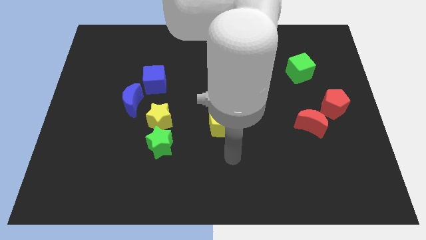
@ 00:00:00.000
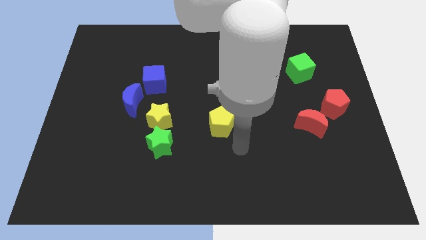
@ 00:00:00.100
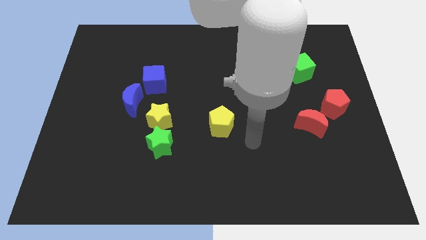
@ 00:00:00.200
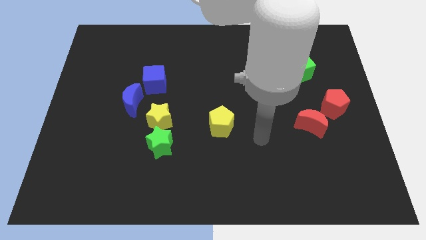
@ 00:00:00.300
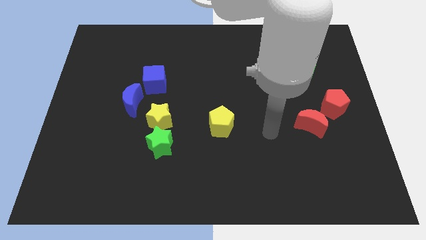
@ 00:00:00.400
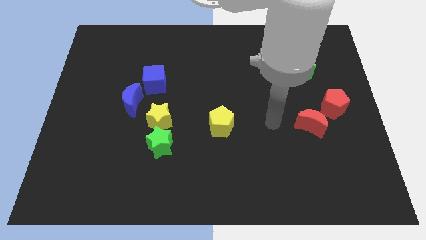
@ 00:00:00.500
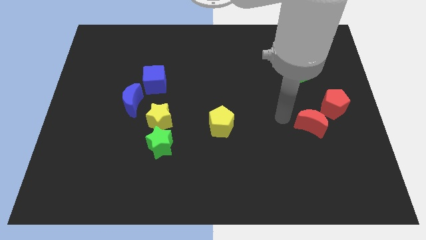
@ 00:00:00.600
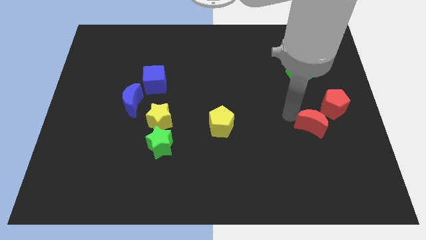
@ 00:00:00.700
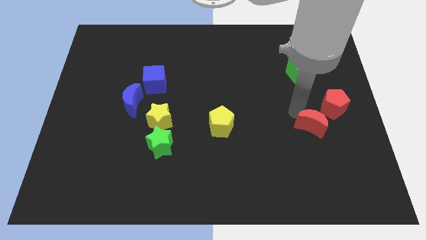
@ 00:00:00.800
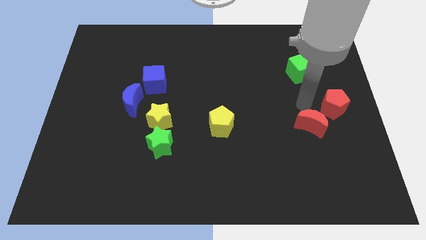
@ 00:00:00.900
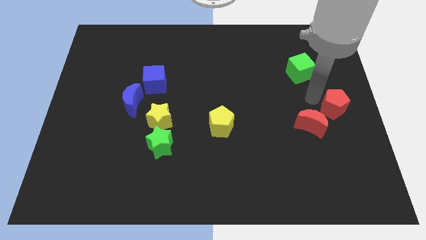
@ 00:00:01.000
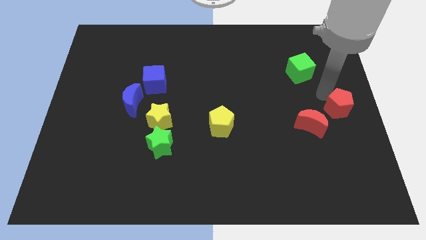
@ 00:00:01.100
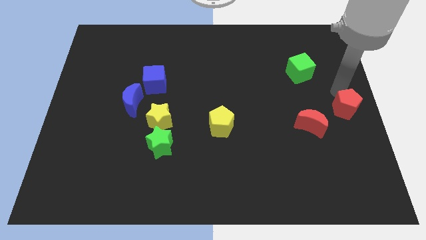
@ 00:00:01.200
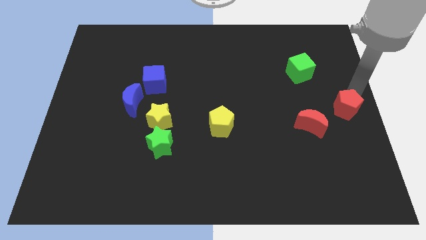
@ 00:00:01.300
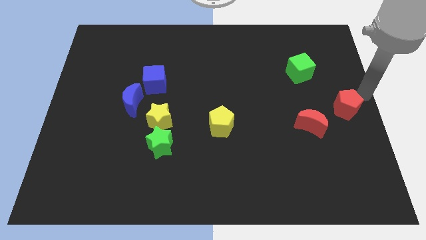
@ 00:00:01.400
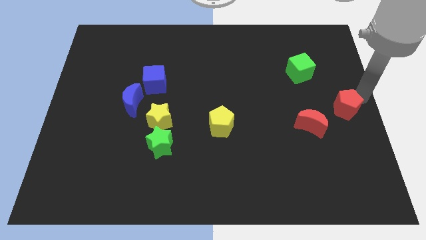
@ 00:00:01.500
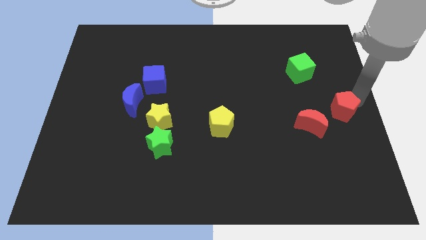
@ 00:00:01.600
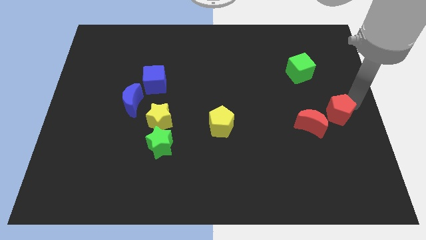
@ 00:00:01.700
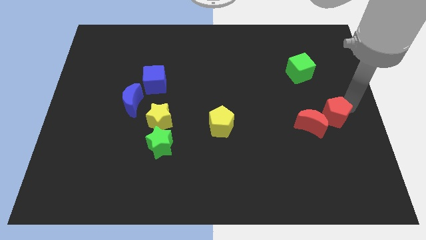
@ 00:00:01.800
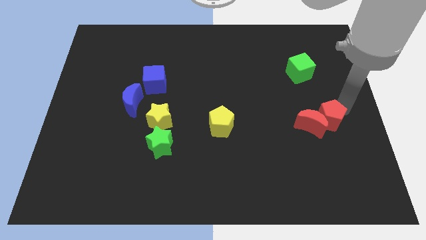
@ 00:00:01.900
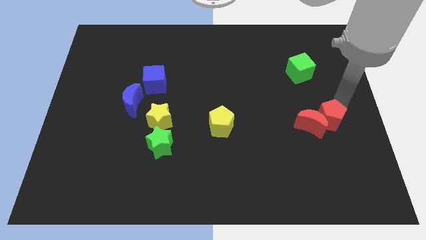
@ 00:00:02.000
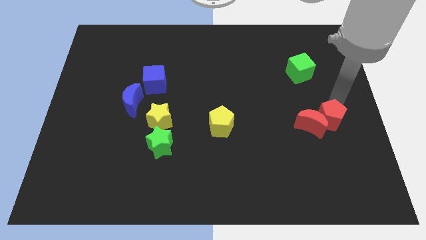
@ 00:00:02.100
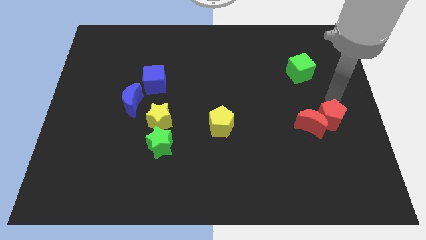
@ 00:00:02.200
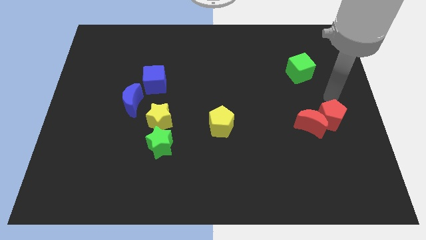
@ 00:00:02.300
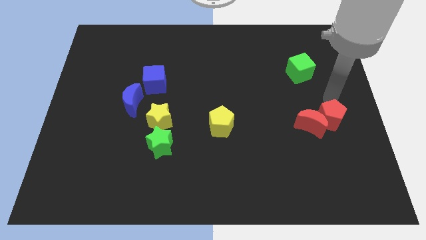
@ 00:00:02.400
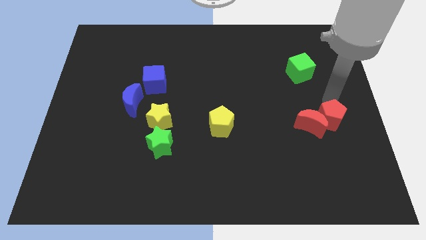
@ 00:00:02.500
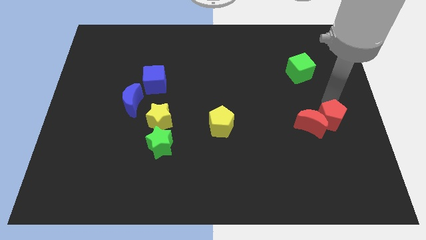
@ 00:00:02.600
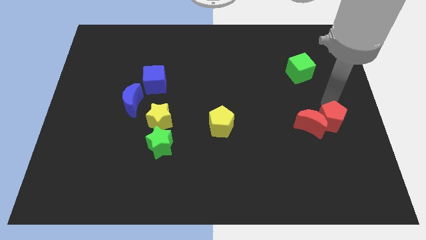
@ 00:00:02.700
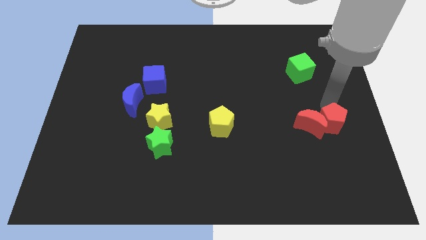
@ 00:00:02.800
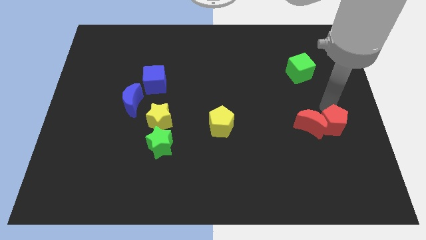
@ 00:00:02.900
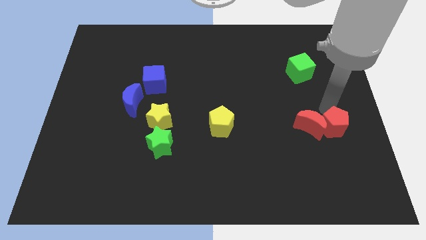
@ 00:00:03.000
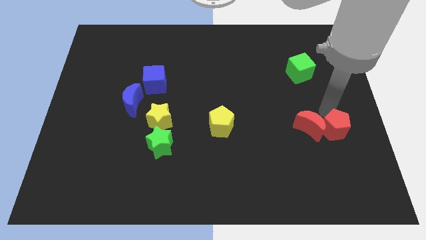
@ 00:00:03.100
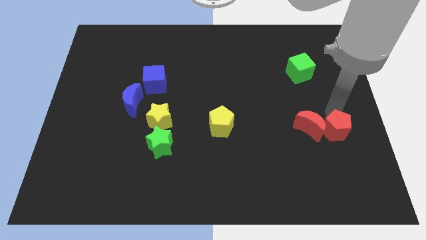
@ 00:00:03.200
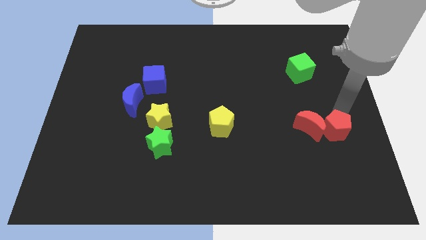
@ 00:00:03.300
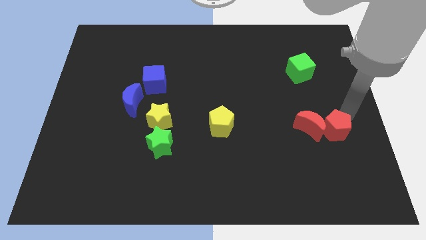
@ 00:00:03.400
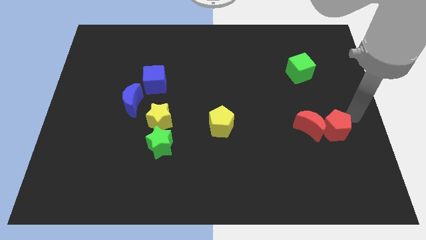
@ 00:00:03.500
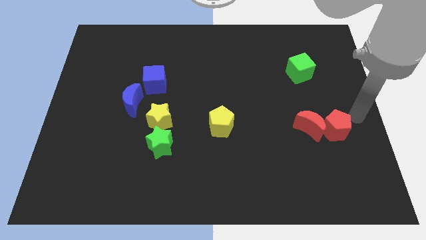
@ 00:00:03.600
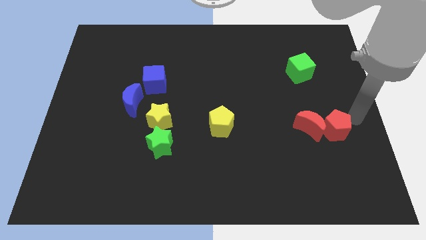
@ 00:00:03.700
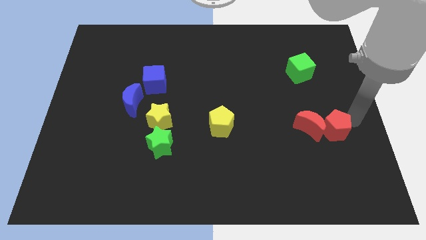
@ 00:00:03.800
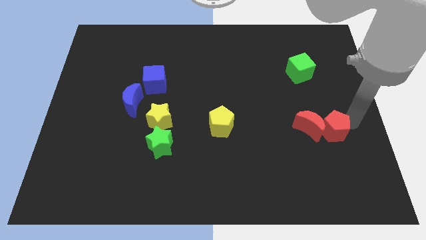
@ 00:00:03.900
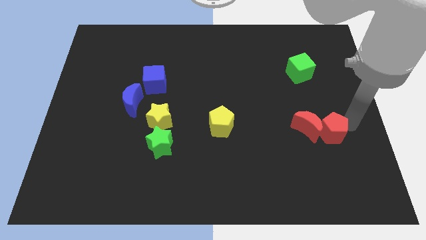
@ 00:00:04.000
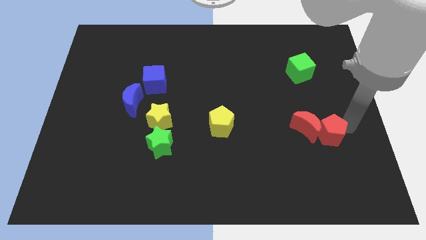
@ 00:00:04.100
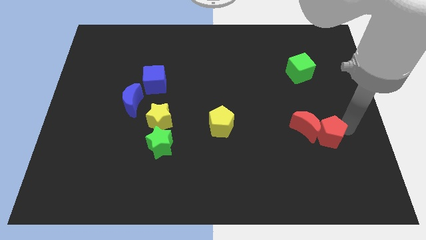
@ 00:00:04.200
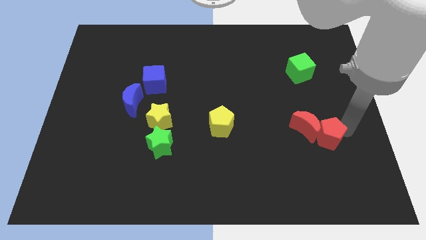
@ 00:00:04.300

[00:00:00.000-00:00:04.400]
move the red pentagon down and then left a little

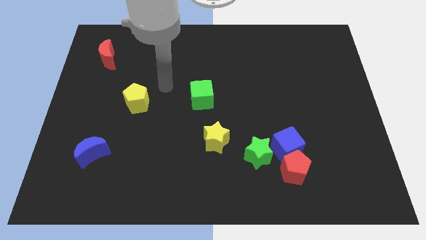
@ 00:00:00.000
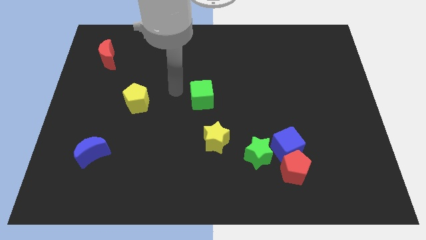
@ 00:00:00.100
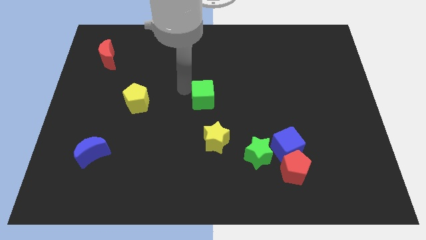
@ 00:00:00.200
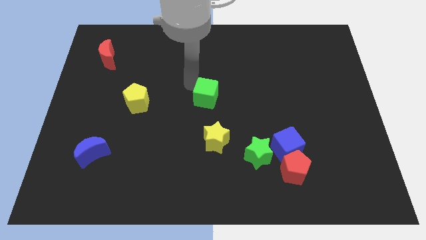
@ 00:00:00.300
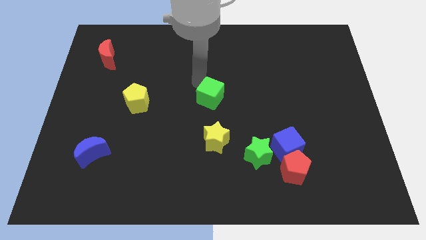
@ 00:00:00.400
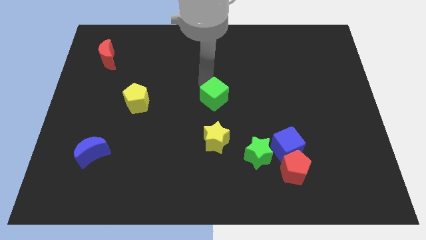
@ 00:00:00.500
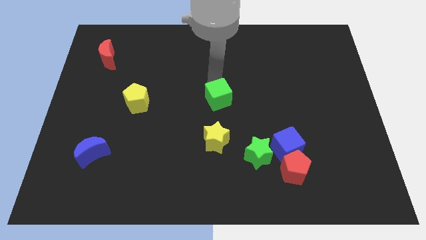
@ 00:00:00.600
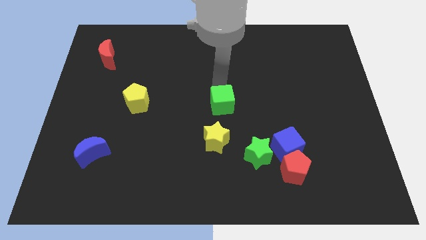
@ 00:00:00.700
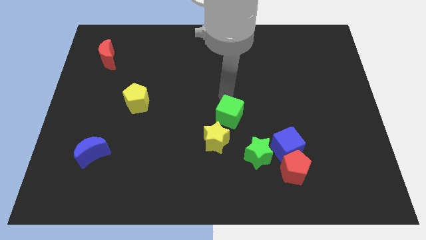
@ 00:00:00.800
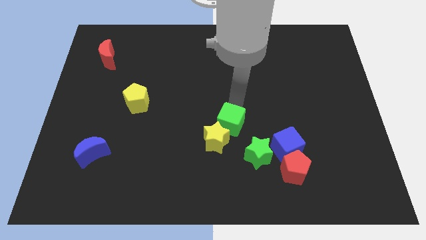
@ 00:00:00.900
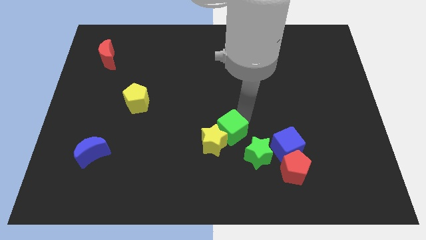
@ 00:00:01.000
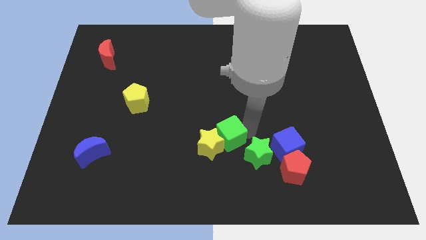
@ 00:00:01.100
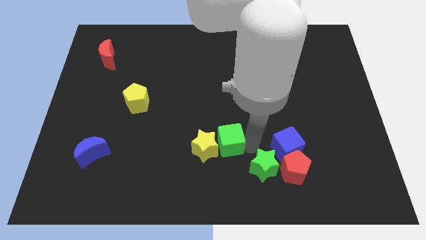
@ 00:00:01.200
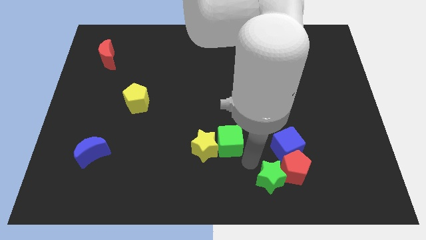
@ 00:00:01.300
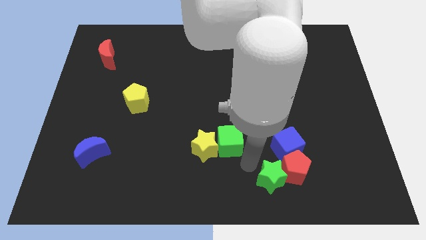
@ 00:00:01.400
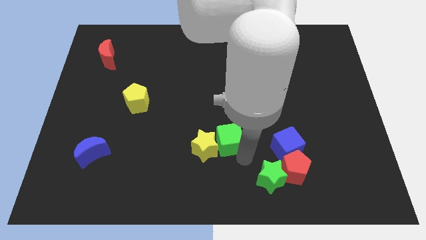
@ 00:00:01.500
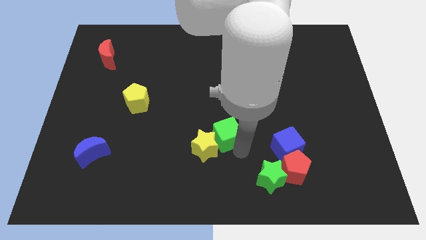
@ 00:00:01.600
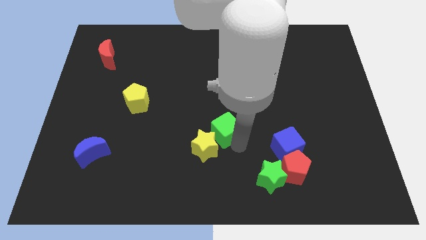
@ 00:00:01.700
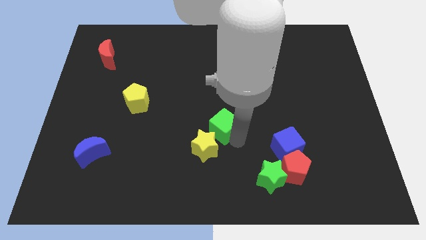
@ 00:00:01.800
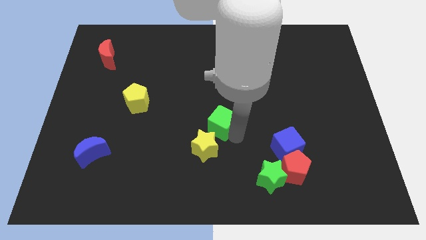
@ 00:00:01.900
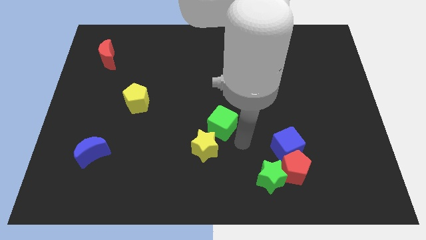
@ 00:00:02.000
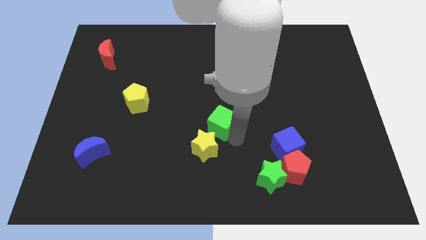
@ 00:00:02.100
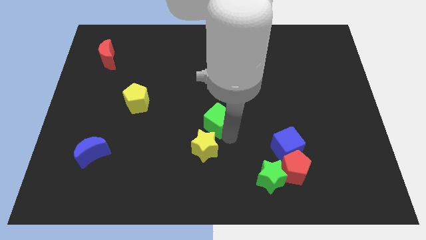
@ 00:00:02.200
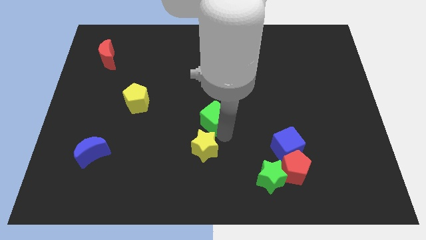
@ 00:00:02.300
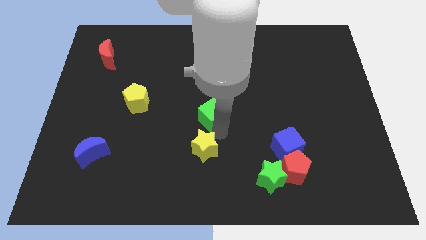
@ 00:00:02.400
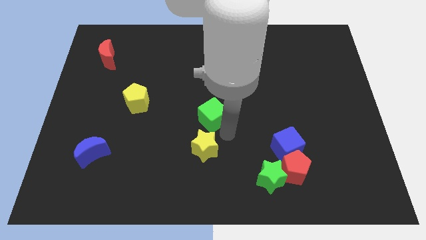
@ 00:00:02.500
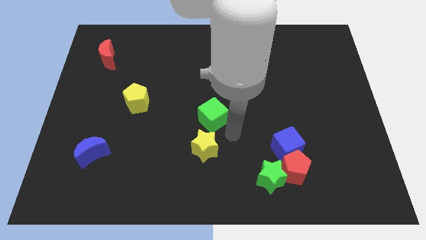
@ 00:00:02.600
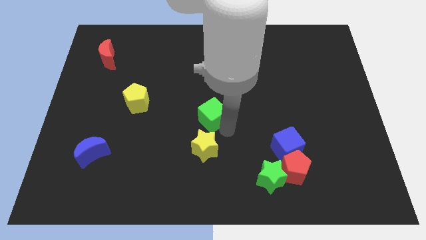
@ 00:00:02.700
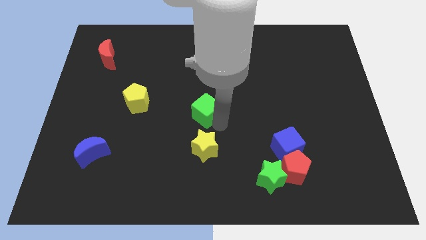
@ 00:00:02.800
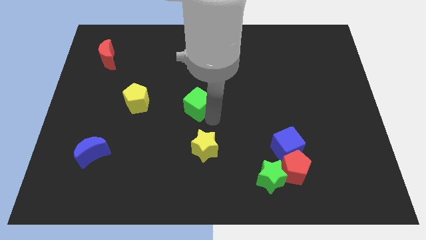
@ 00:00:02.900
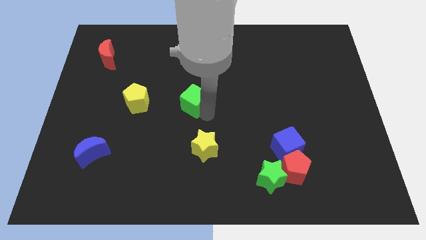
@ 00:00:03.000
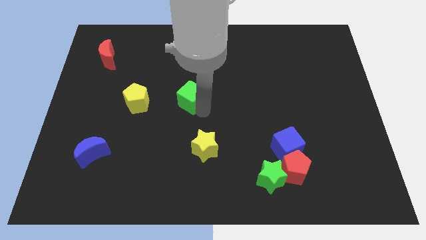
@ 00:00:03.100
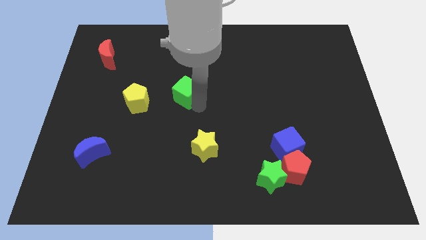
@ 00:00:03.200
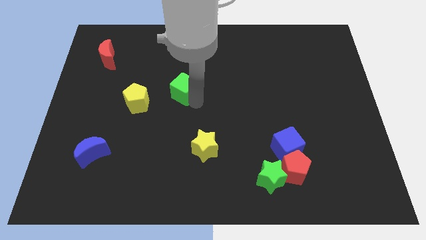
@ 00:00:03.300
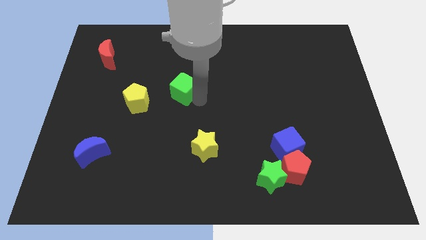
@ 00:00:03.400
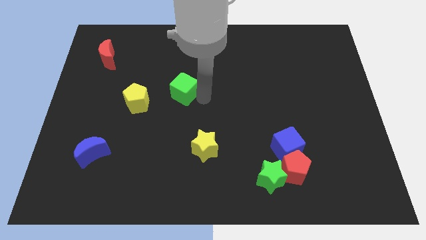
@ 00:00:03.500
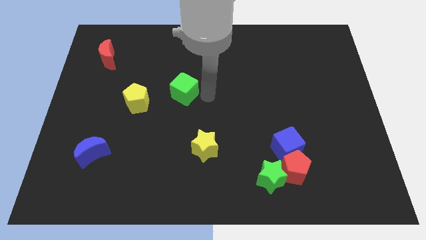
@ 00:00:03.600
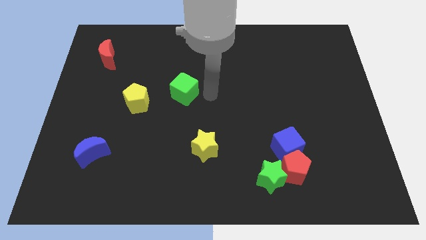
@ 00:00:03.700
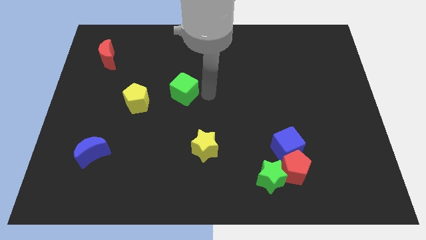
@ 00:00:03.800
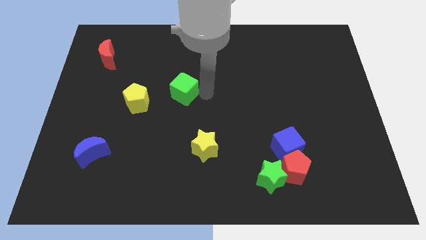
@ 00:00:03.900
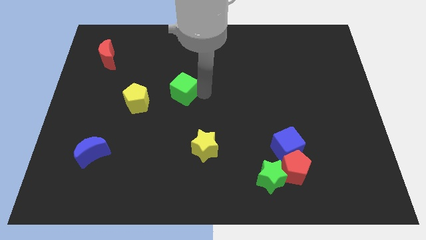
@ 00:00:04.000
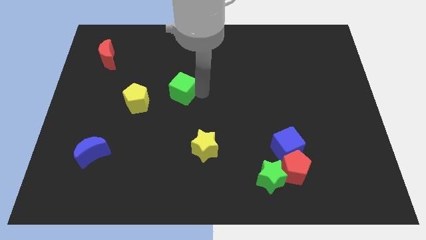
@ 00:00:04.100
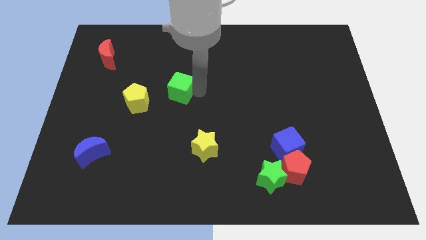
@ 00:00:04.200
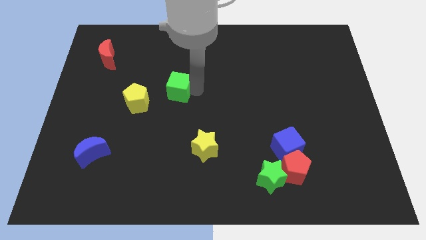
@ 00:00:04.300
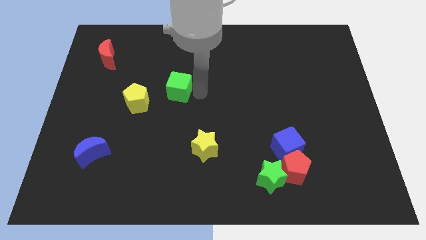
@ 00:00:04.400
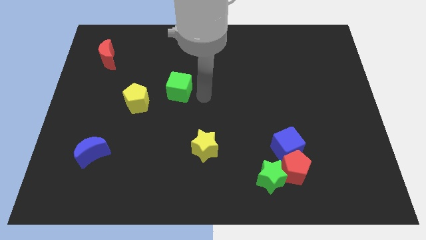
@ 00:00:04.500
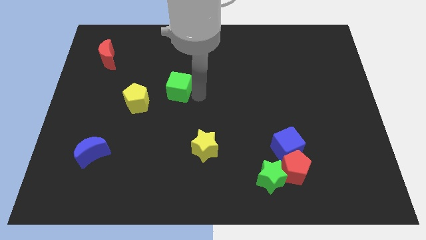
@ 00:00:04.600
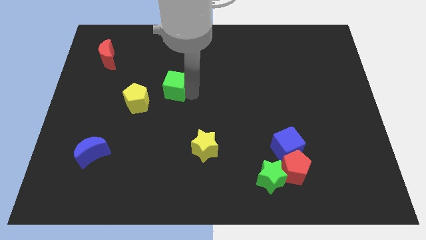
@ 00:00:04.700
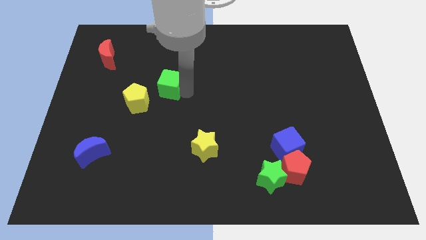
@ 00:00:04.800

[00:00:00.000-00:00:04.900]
slightly push the green cube left
